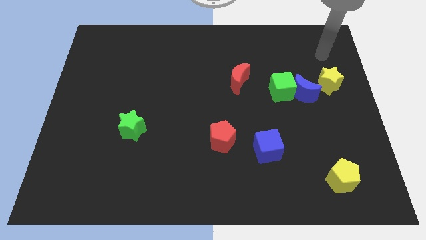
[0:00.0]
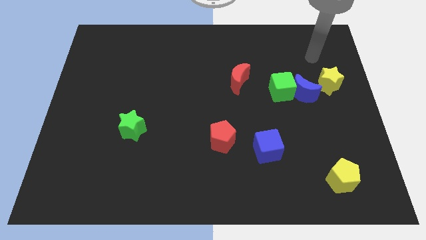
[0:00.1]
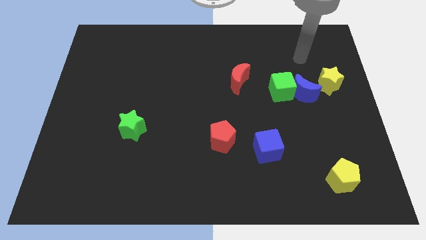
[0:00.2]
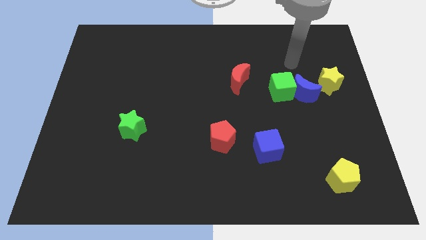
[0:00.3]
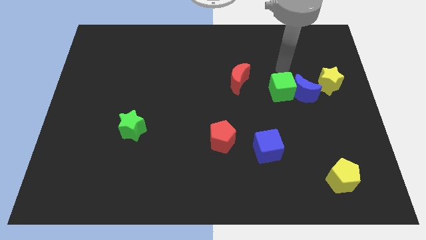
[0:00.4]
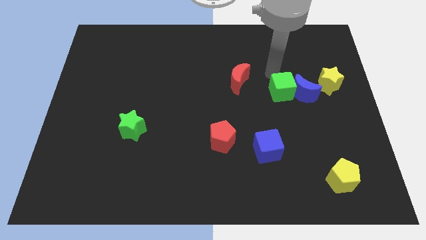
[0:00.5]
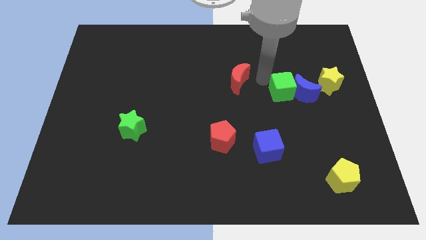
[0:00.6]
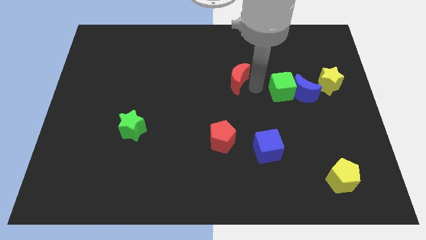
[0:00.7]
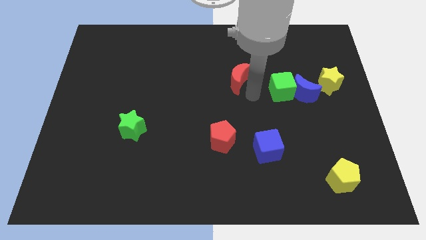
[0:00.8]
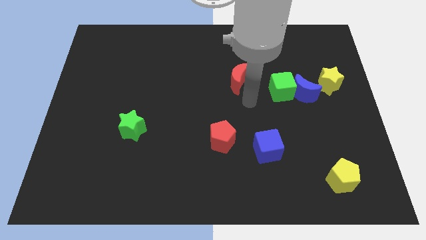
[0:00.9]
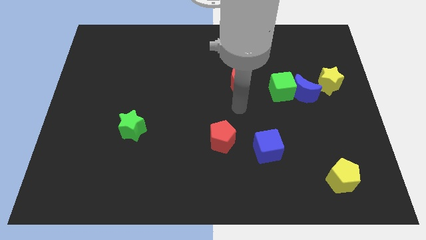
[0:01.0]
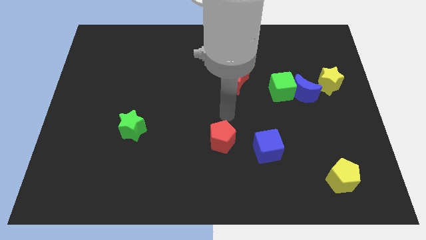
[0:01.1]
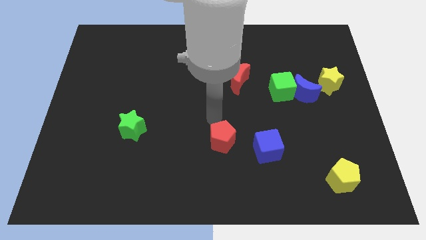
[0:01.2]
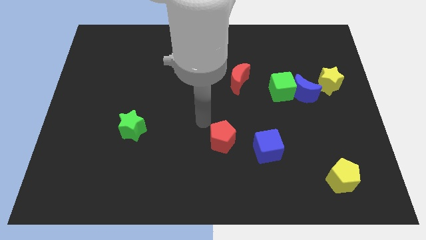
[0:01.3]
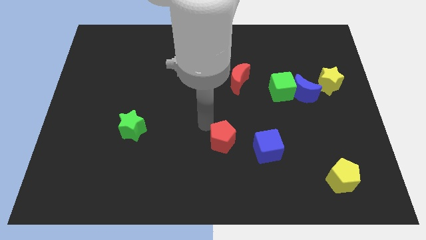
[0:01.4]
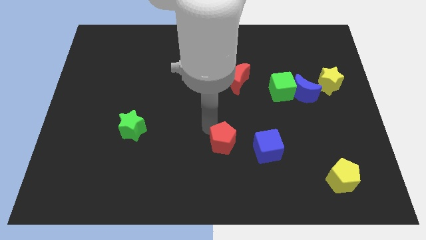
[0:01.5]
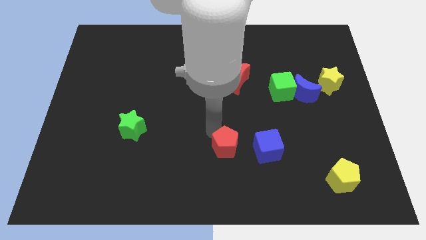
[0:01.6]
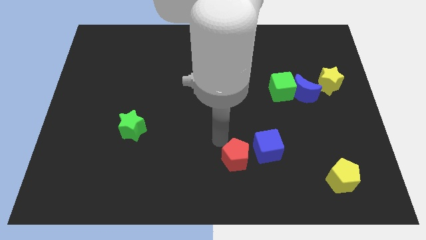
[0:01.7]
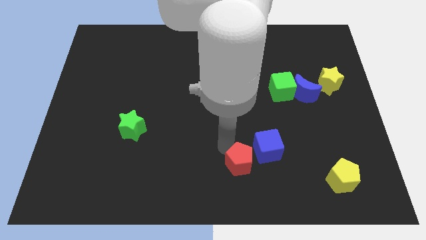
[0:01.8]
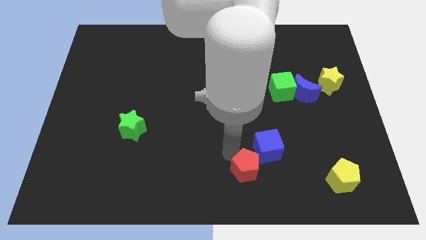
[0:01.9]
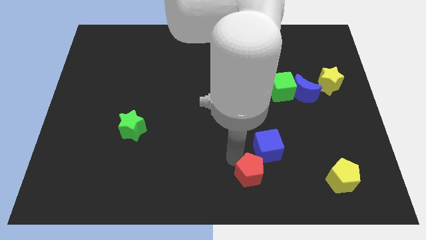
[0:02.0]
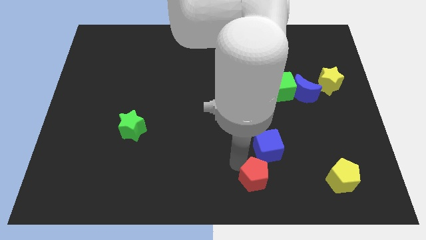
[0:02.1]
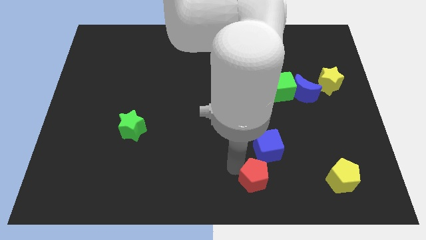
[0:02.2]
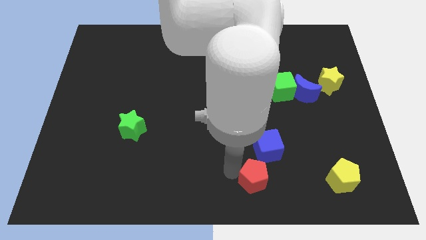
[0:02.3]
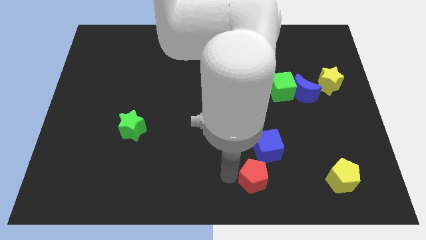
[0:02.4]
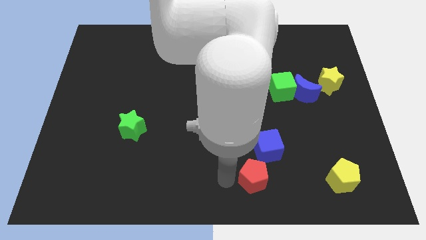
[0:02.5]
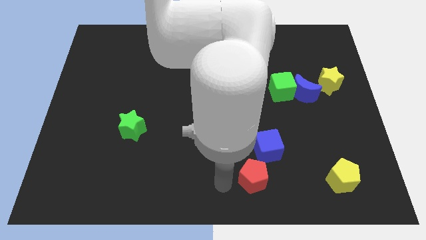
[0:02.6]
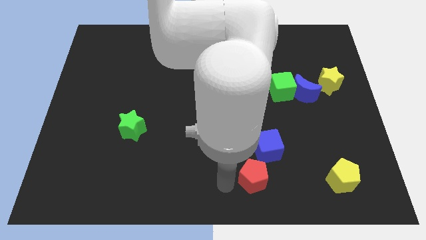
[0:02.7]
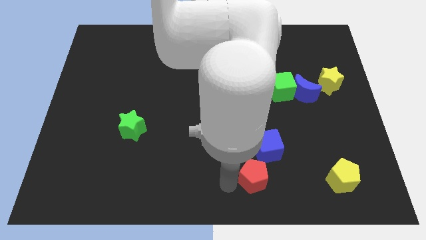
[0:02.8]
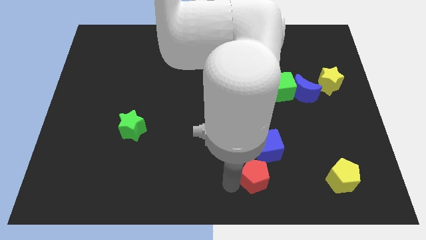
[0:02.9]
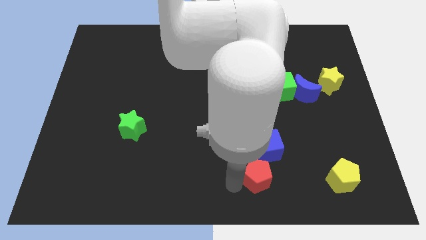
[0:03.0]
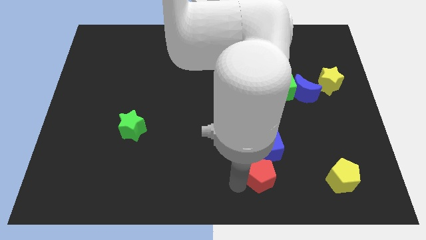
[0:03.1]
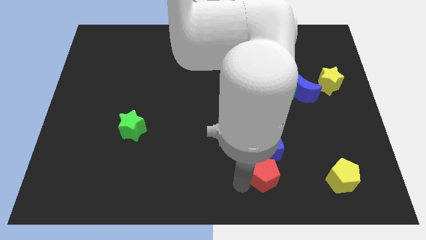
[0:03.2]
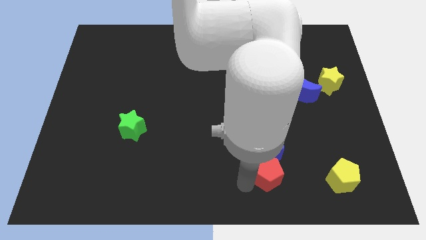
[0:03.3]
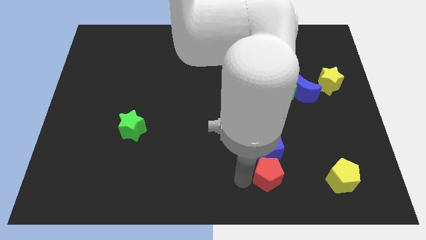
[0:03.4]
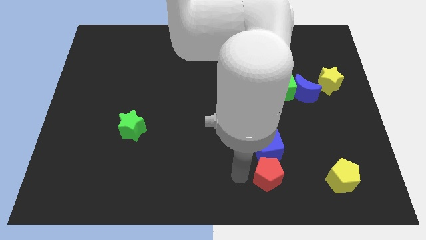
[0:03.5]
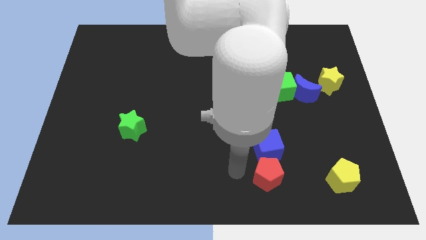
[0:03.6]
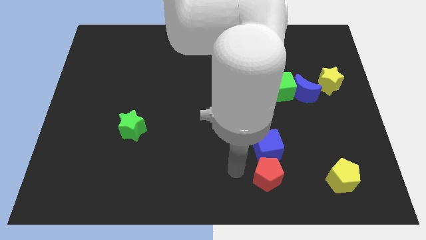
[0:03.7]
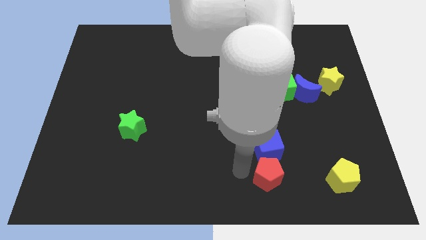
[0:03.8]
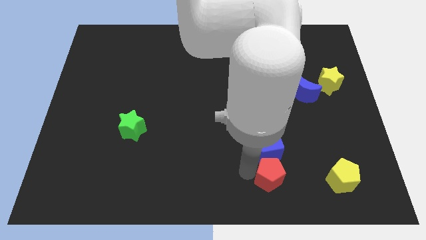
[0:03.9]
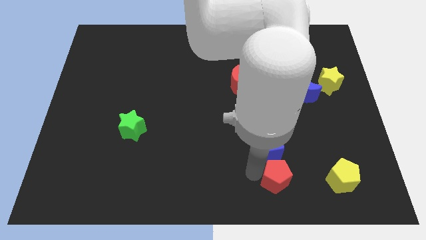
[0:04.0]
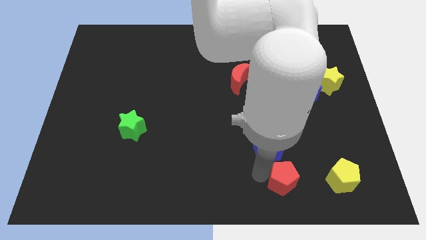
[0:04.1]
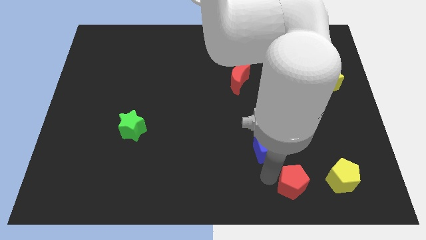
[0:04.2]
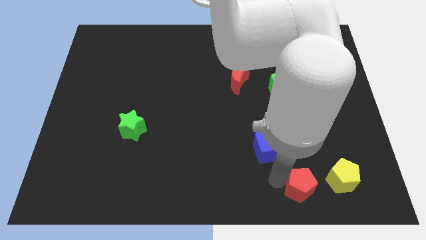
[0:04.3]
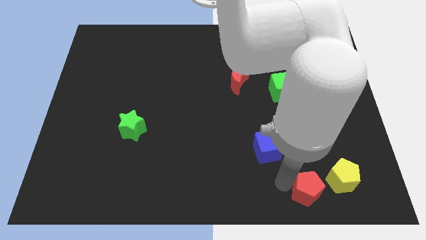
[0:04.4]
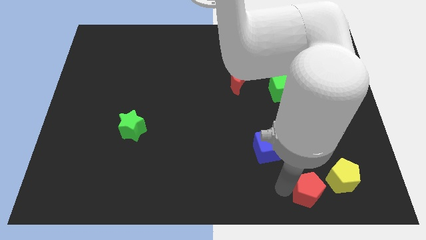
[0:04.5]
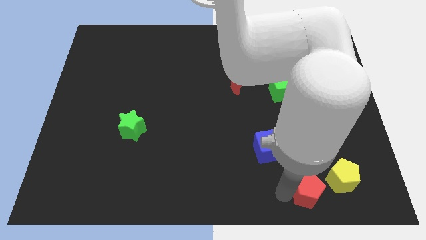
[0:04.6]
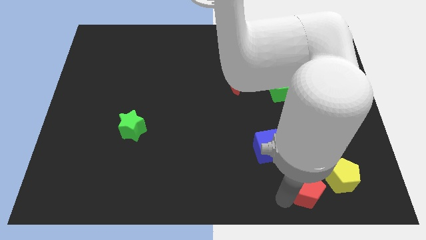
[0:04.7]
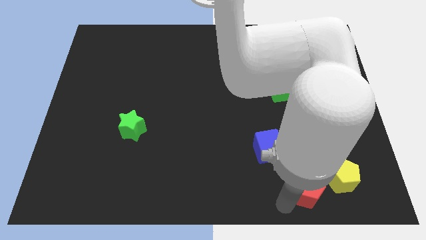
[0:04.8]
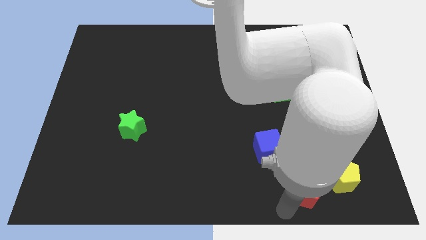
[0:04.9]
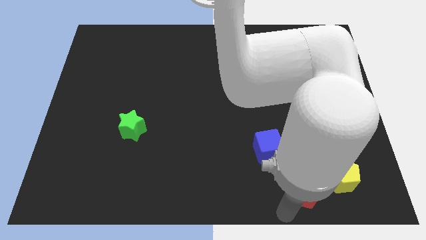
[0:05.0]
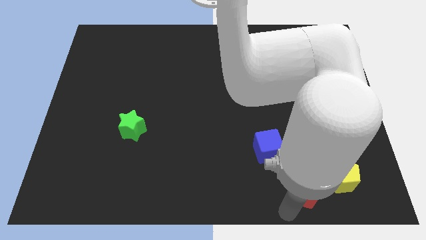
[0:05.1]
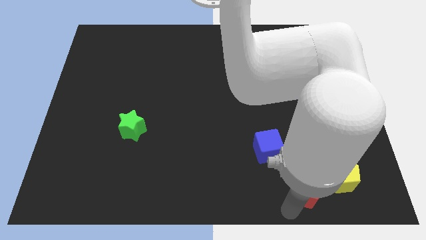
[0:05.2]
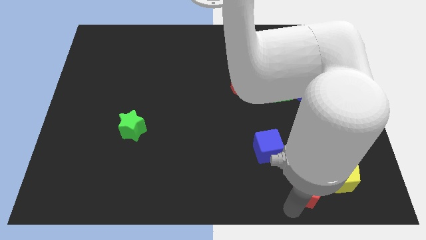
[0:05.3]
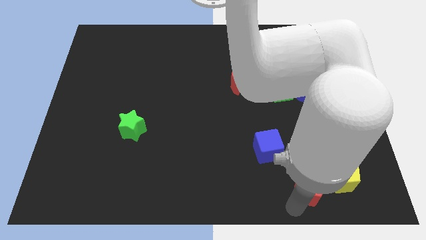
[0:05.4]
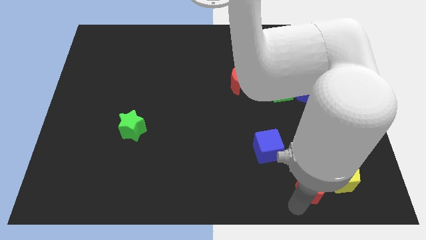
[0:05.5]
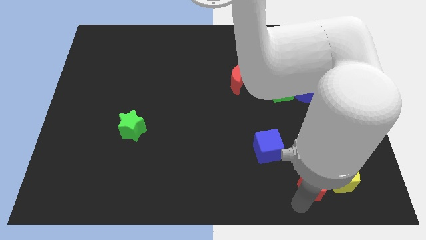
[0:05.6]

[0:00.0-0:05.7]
push the red pentagon to the yellow pentagon

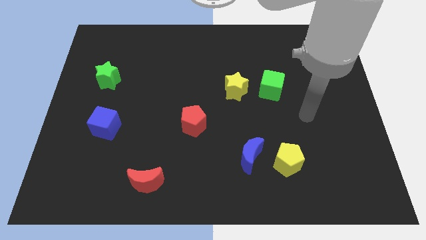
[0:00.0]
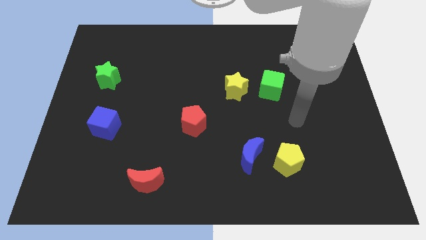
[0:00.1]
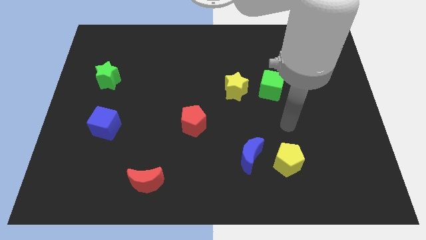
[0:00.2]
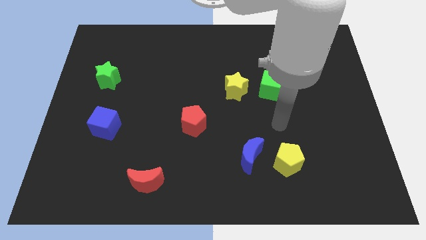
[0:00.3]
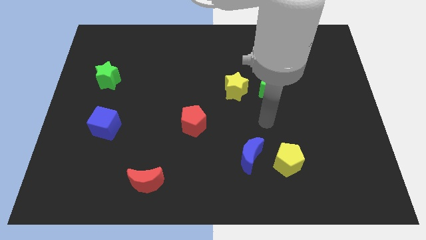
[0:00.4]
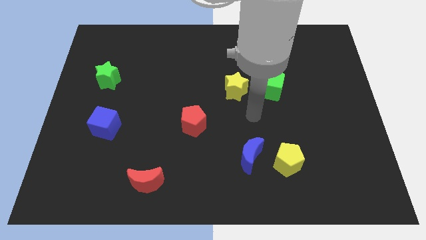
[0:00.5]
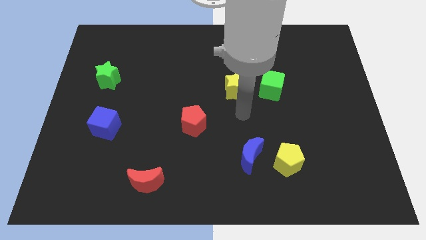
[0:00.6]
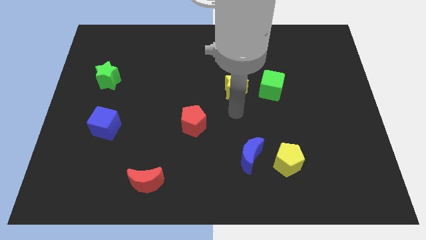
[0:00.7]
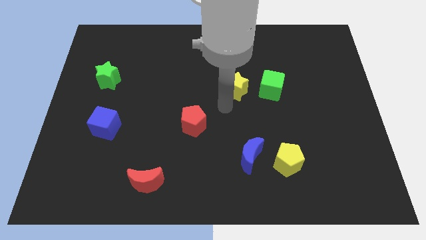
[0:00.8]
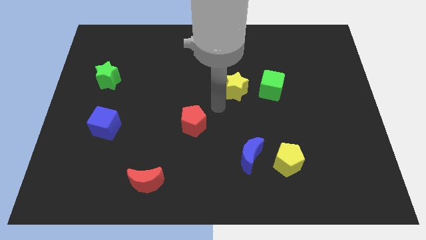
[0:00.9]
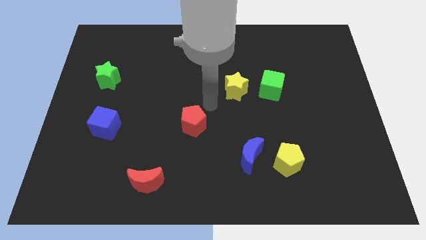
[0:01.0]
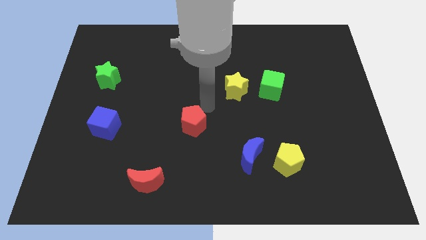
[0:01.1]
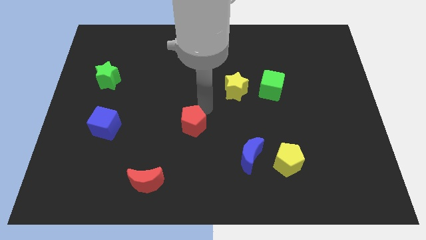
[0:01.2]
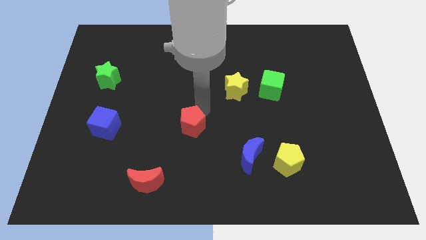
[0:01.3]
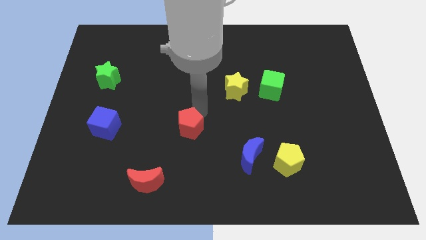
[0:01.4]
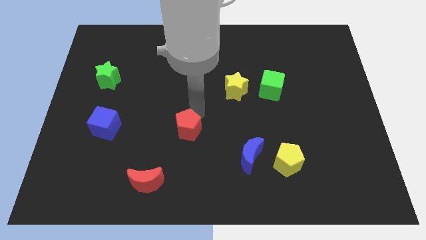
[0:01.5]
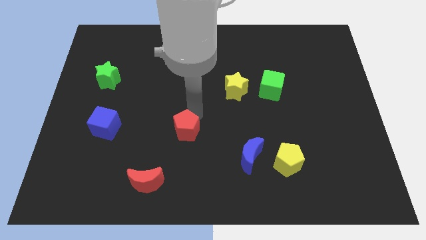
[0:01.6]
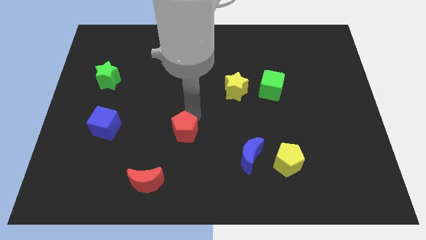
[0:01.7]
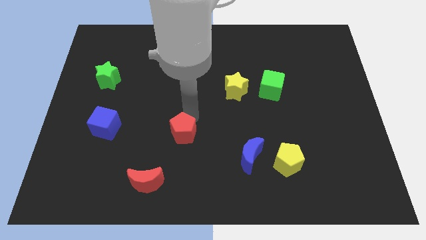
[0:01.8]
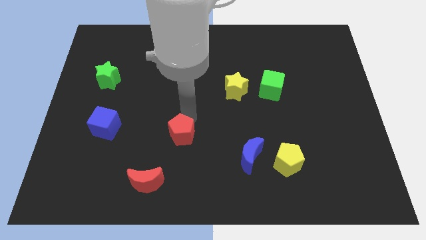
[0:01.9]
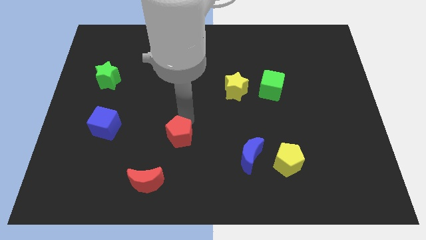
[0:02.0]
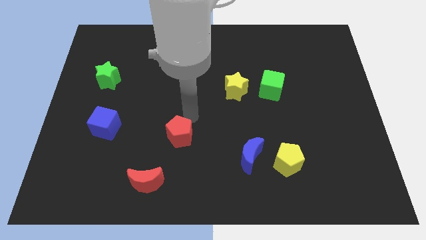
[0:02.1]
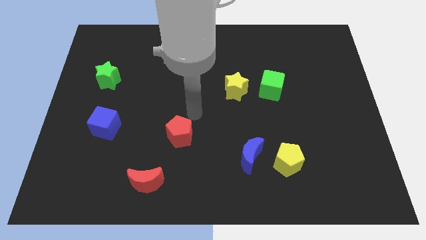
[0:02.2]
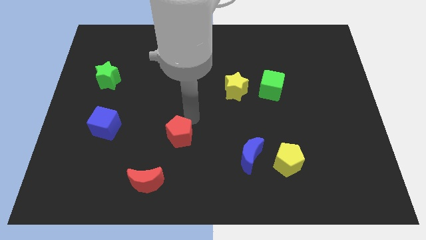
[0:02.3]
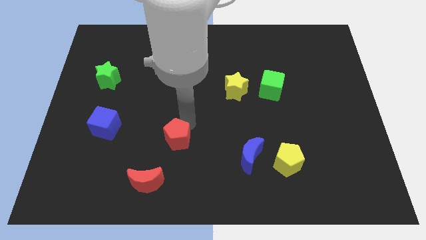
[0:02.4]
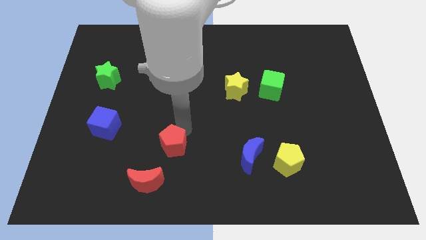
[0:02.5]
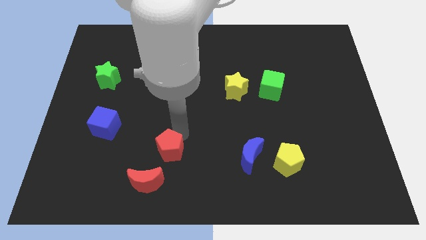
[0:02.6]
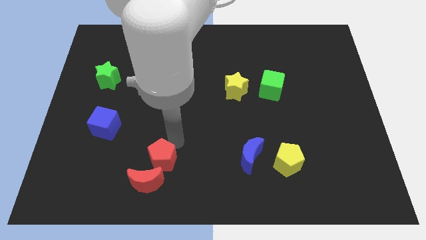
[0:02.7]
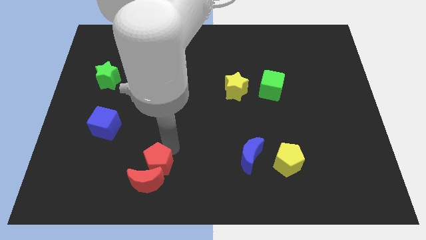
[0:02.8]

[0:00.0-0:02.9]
move the red pentagon towards the red moon
